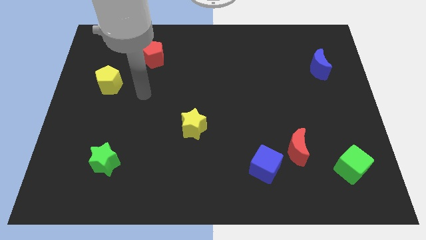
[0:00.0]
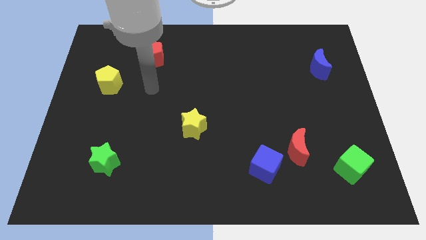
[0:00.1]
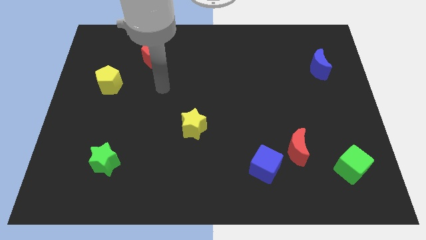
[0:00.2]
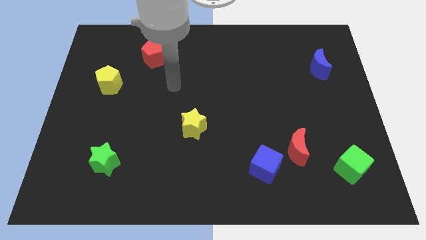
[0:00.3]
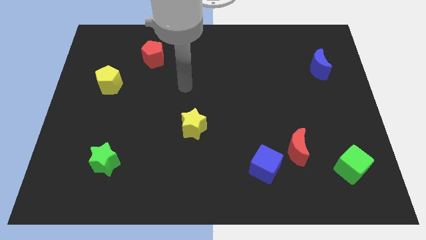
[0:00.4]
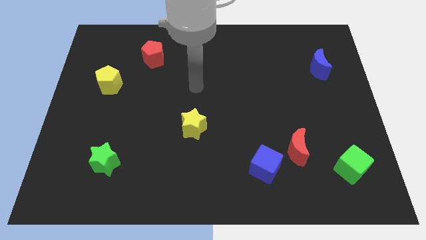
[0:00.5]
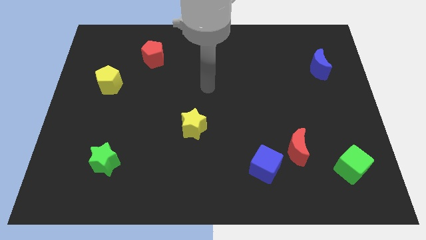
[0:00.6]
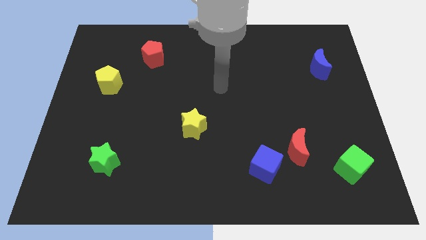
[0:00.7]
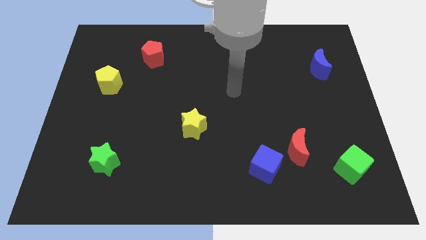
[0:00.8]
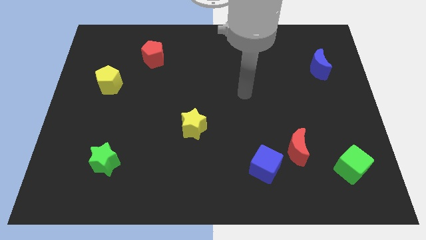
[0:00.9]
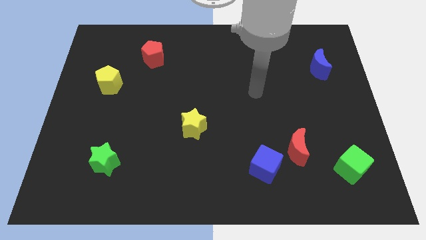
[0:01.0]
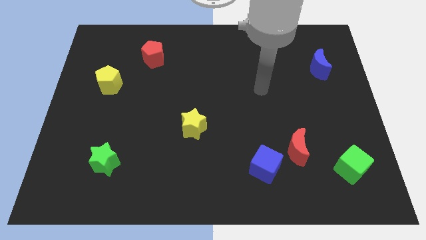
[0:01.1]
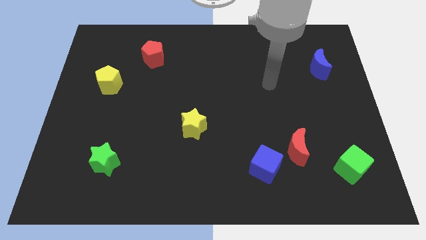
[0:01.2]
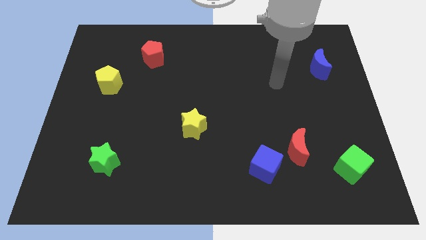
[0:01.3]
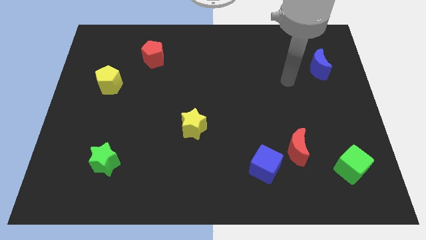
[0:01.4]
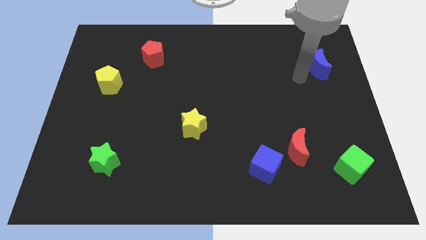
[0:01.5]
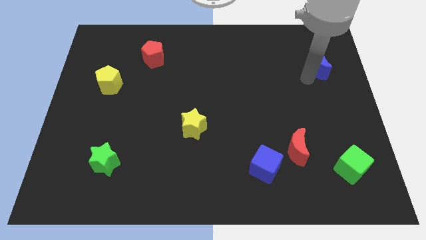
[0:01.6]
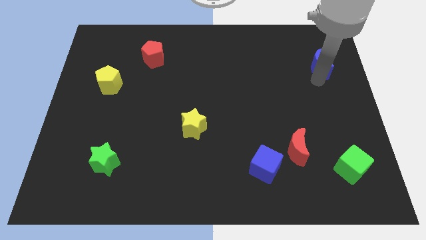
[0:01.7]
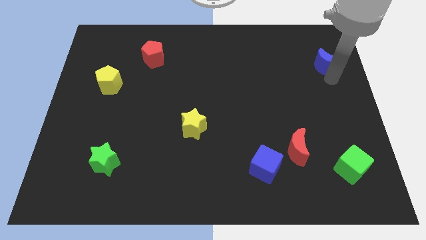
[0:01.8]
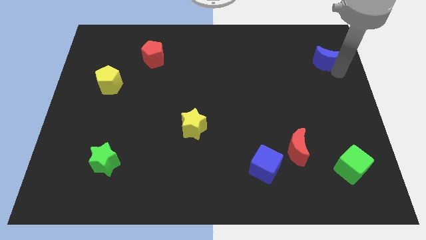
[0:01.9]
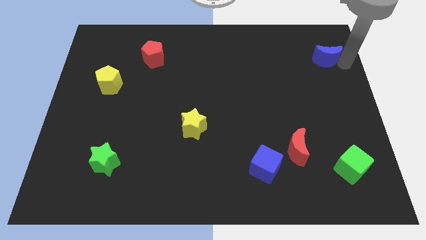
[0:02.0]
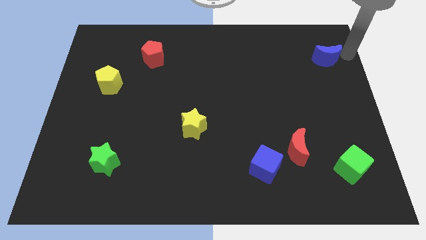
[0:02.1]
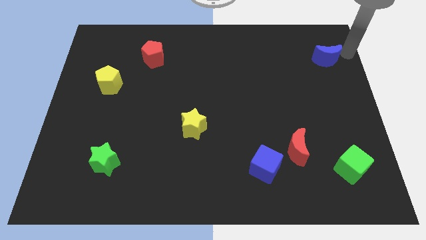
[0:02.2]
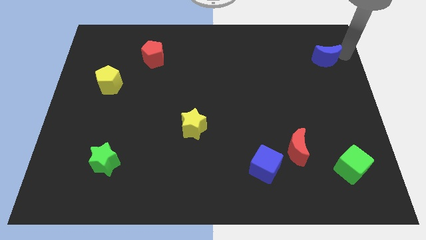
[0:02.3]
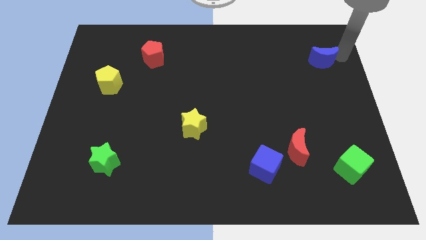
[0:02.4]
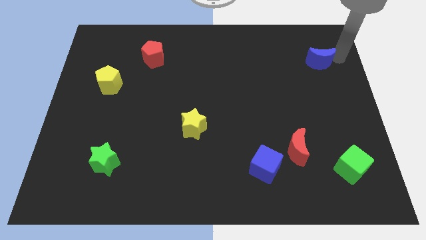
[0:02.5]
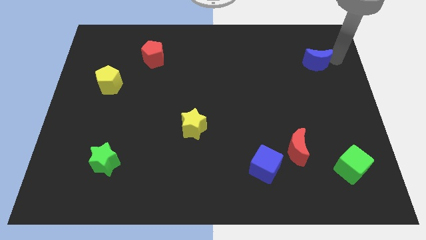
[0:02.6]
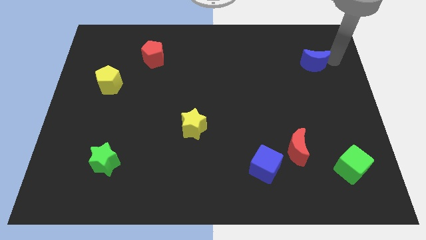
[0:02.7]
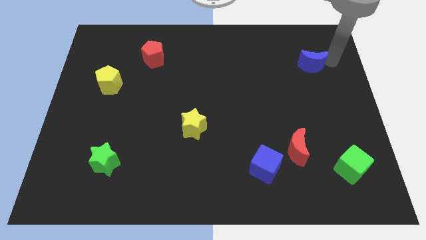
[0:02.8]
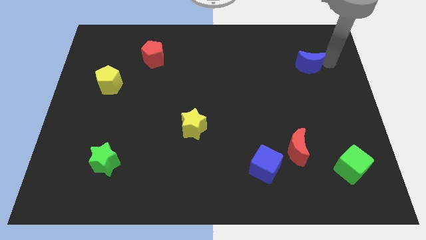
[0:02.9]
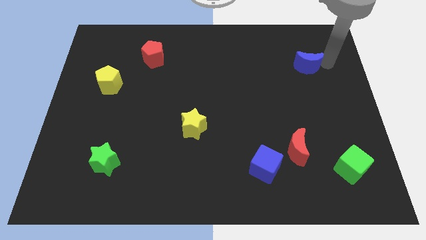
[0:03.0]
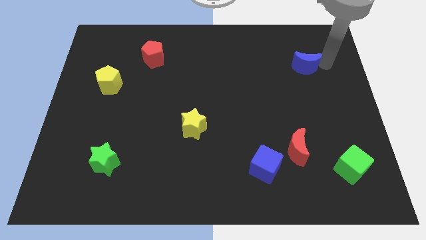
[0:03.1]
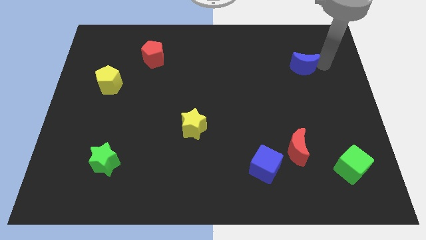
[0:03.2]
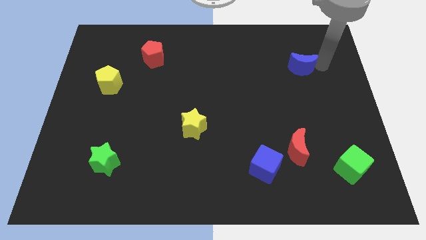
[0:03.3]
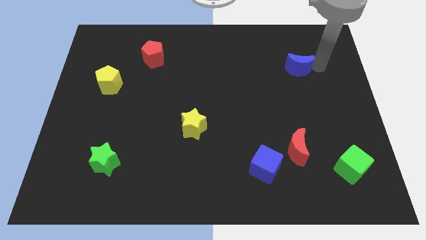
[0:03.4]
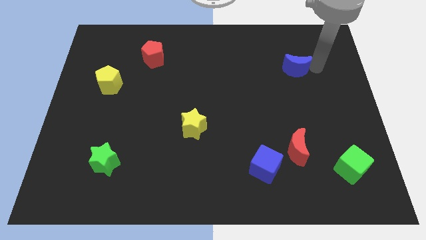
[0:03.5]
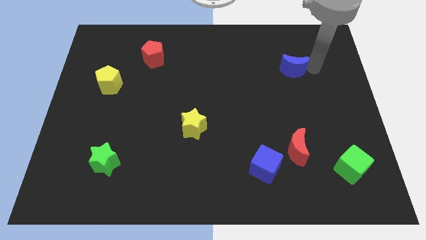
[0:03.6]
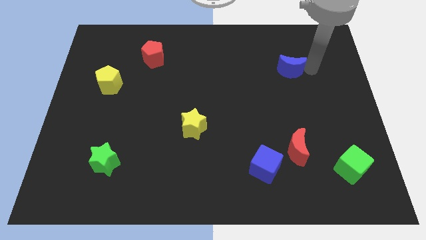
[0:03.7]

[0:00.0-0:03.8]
push the blue moon to the left a bit

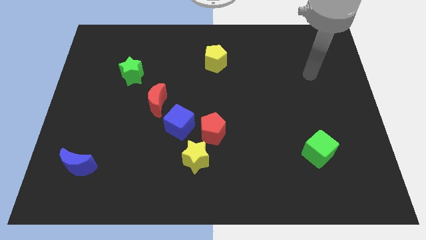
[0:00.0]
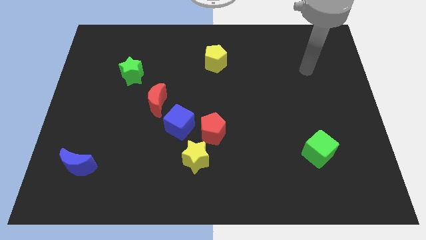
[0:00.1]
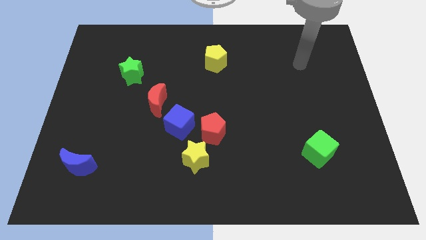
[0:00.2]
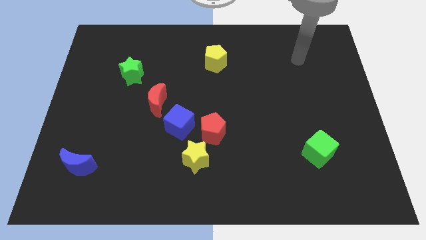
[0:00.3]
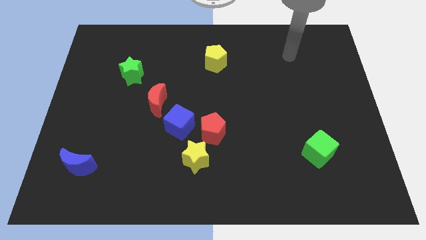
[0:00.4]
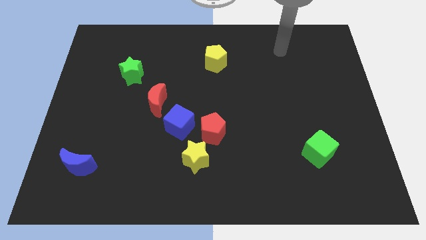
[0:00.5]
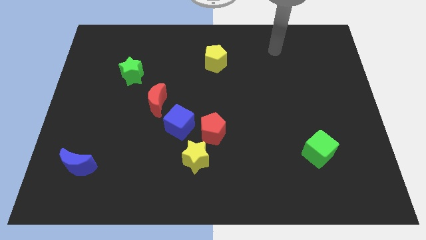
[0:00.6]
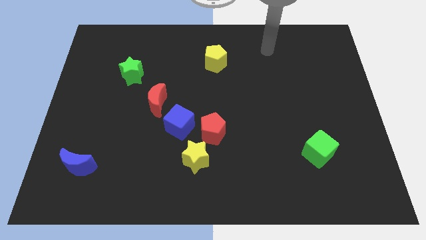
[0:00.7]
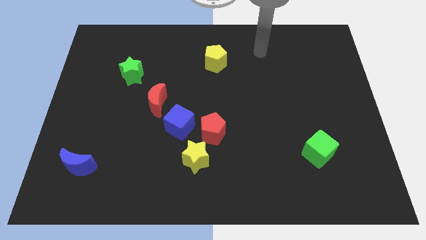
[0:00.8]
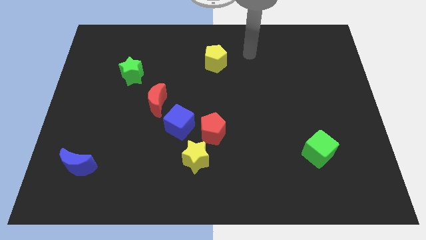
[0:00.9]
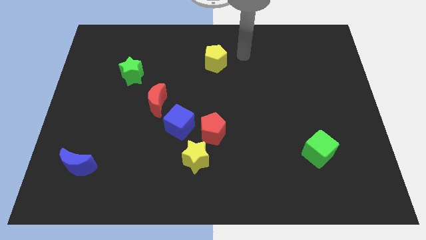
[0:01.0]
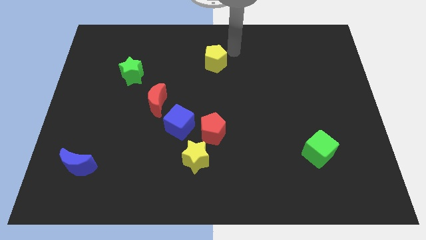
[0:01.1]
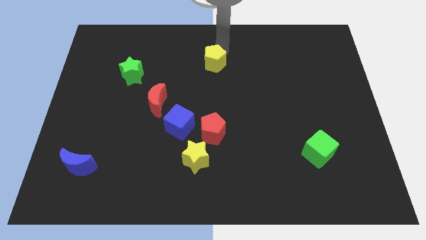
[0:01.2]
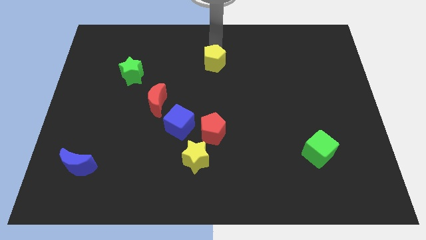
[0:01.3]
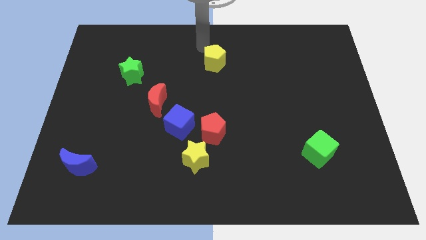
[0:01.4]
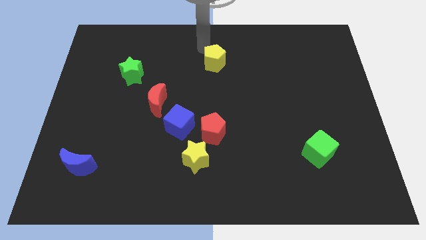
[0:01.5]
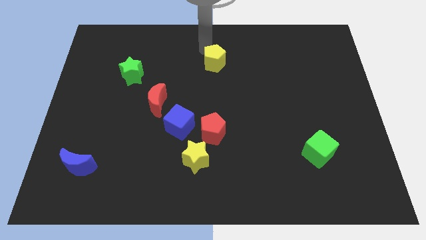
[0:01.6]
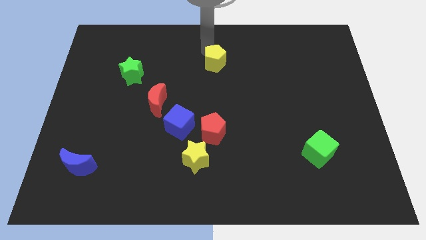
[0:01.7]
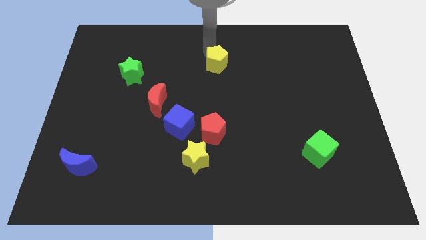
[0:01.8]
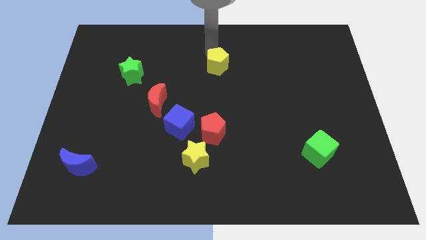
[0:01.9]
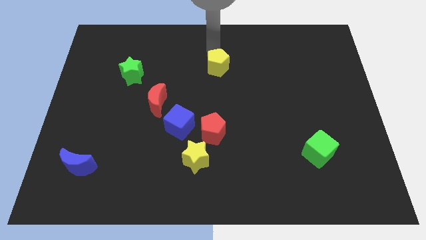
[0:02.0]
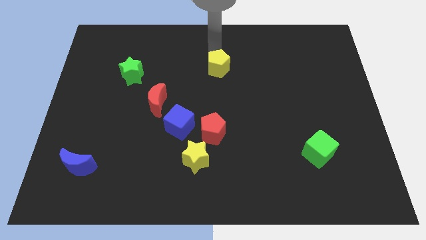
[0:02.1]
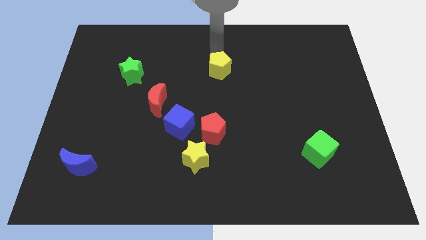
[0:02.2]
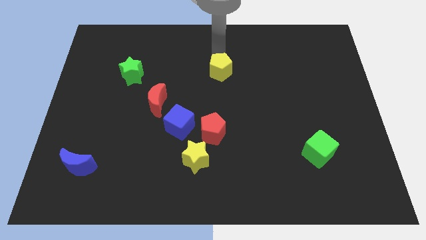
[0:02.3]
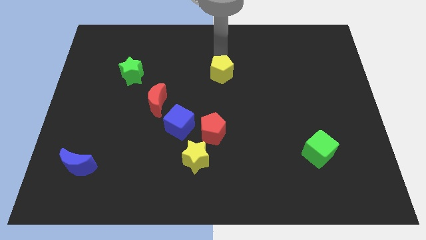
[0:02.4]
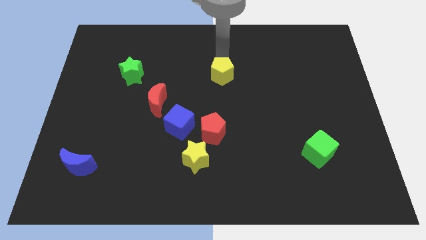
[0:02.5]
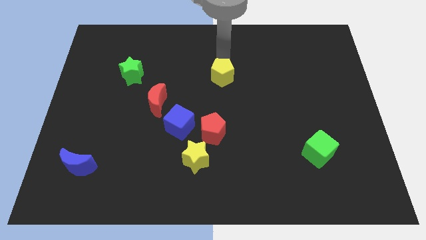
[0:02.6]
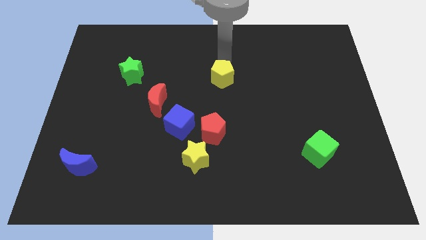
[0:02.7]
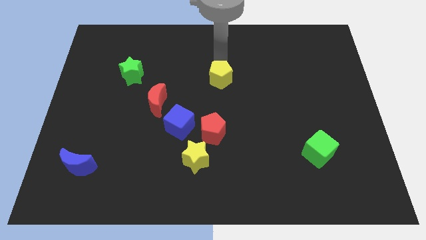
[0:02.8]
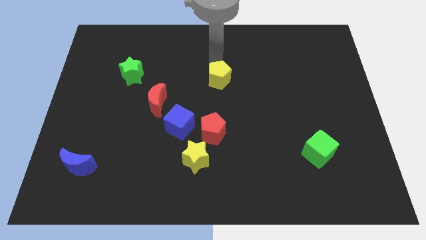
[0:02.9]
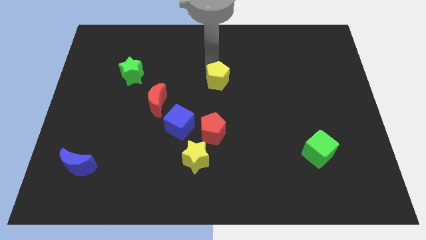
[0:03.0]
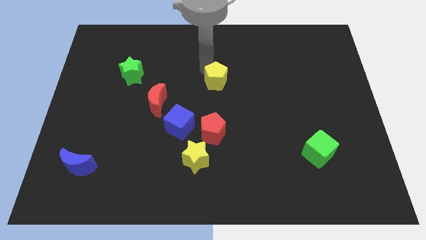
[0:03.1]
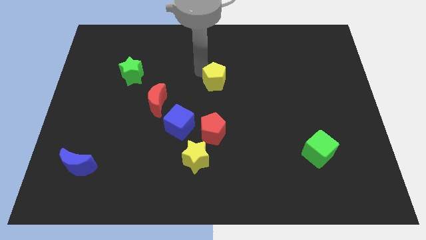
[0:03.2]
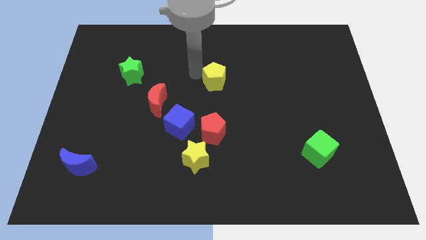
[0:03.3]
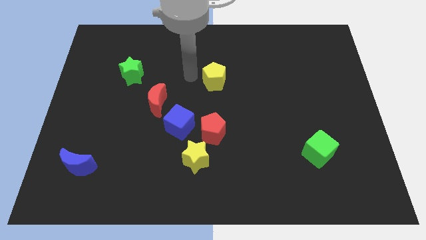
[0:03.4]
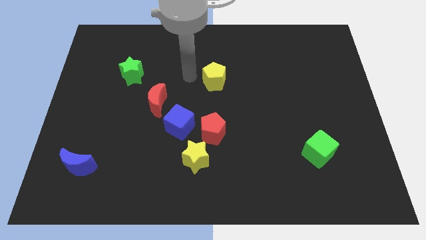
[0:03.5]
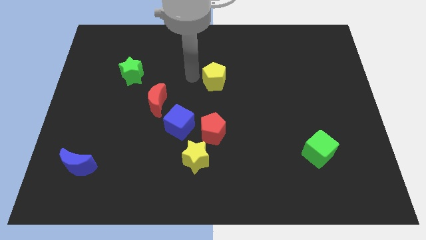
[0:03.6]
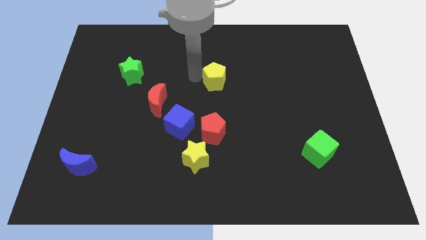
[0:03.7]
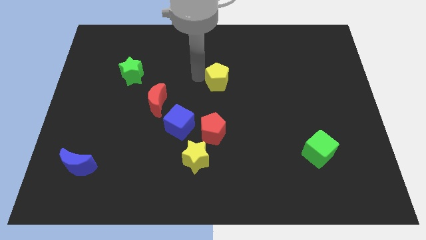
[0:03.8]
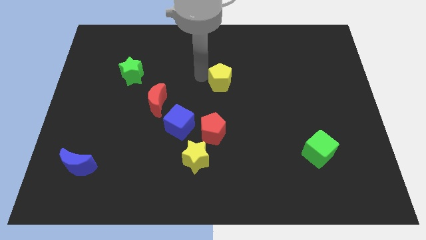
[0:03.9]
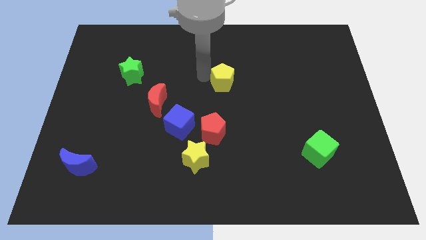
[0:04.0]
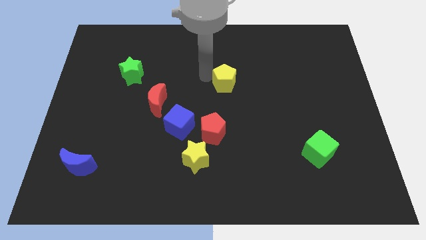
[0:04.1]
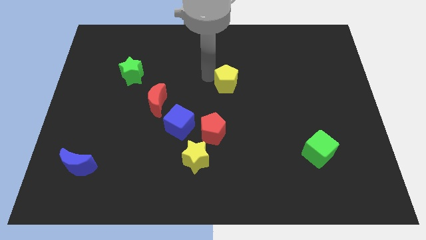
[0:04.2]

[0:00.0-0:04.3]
push the yellow pentagon slightly downwards and to the right
